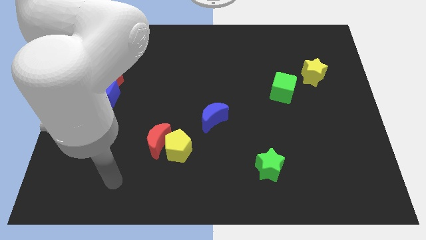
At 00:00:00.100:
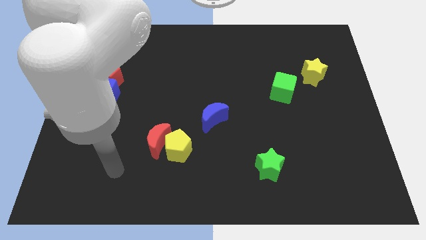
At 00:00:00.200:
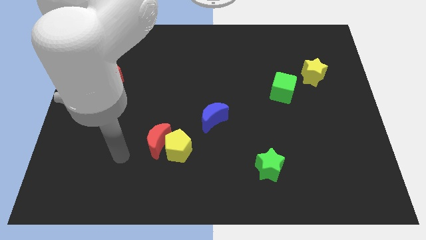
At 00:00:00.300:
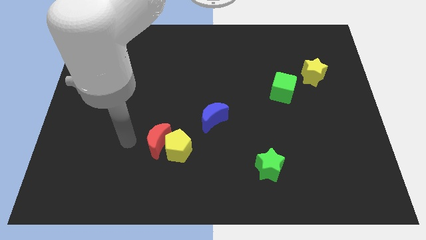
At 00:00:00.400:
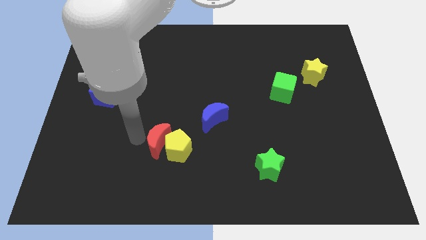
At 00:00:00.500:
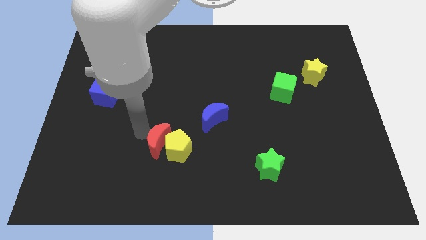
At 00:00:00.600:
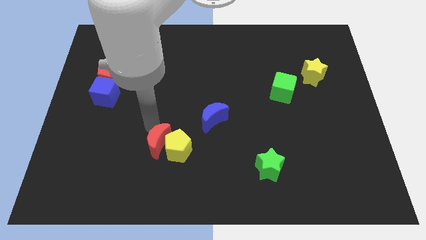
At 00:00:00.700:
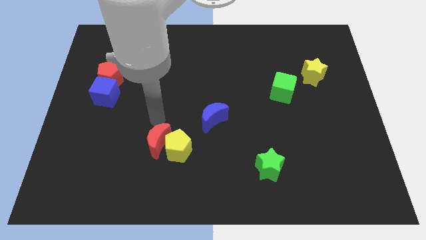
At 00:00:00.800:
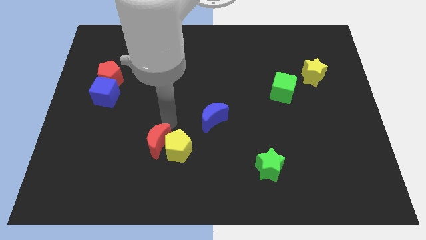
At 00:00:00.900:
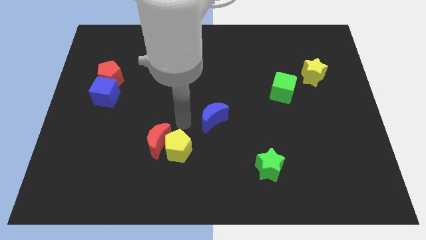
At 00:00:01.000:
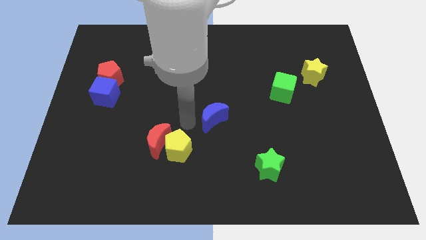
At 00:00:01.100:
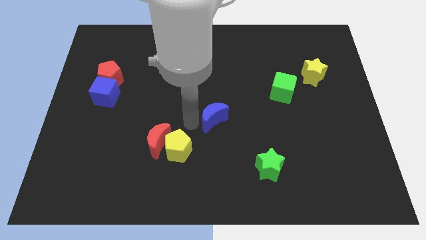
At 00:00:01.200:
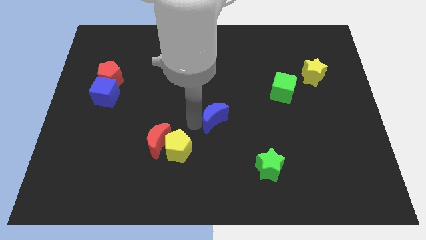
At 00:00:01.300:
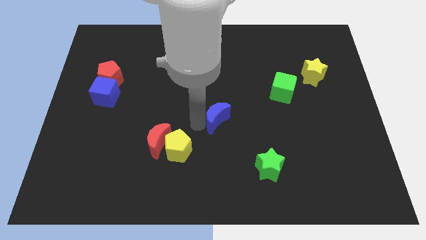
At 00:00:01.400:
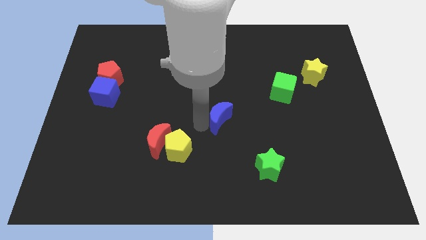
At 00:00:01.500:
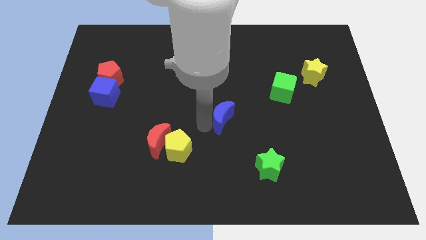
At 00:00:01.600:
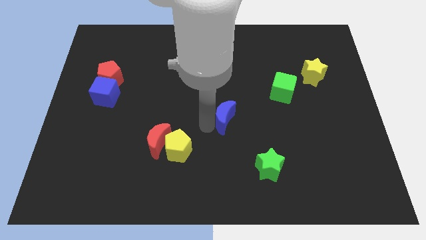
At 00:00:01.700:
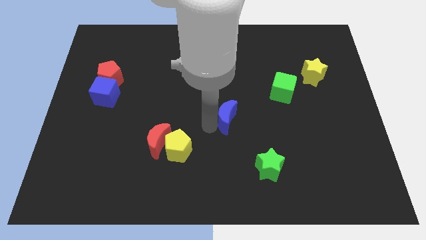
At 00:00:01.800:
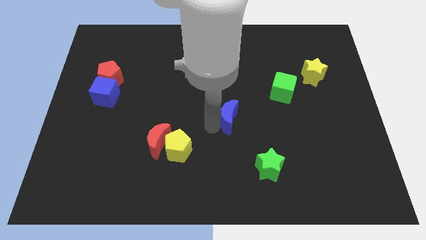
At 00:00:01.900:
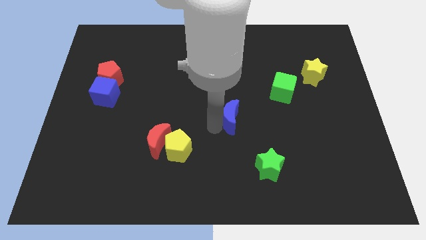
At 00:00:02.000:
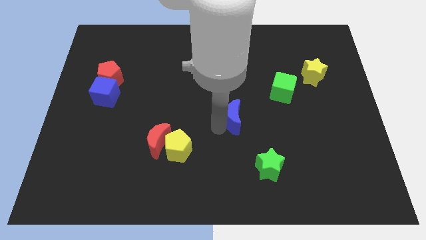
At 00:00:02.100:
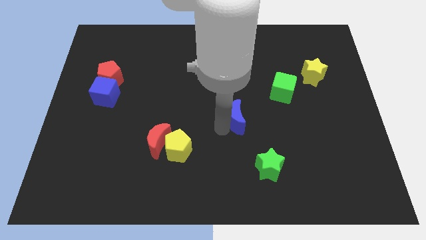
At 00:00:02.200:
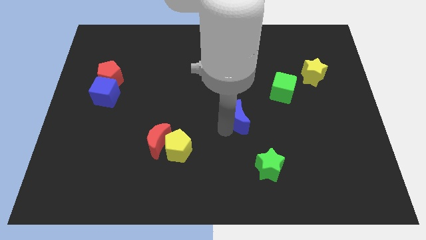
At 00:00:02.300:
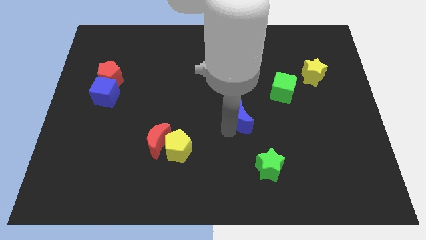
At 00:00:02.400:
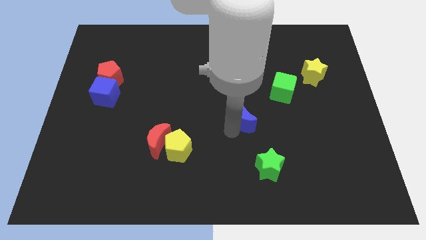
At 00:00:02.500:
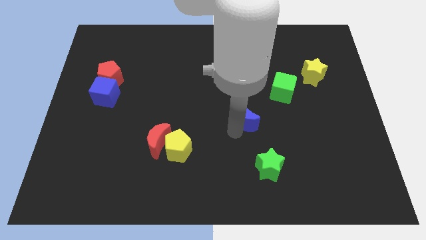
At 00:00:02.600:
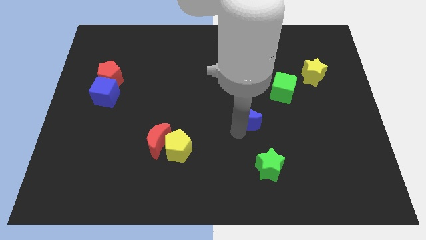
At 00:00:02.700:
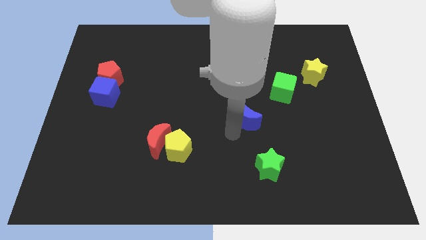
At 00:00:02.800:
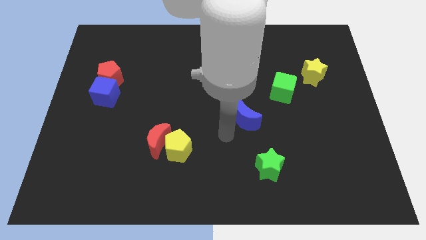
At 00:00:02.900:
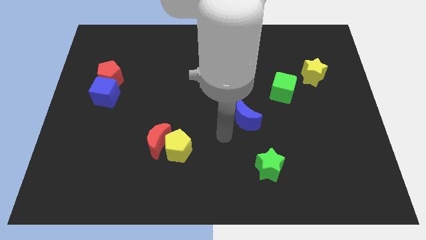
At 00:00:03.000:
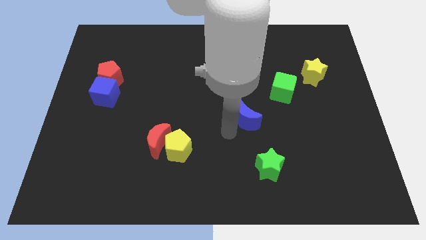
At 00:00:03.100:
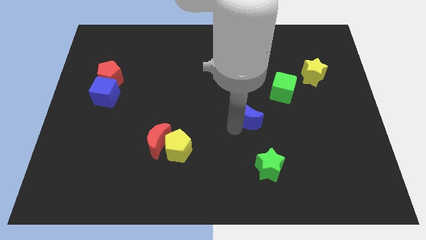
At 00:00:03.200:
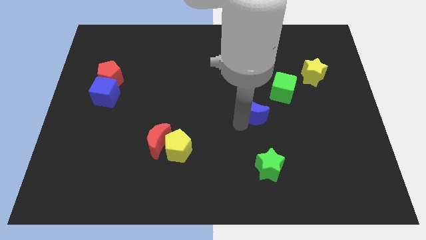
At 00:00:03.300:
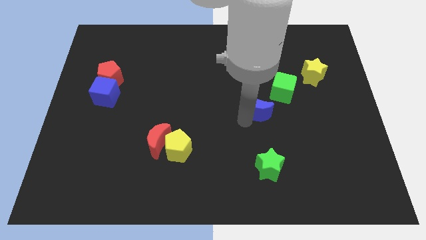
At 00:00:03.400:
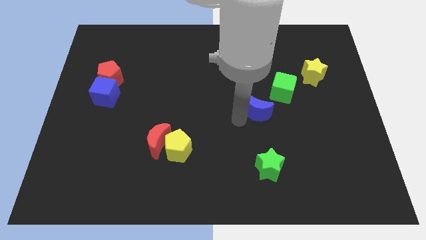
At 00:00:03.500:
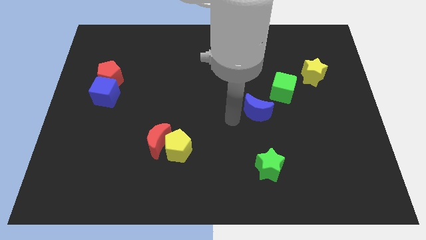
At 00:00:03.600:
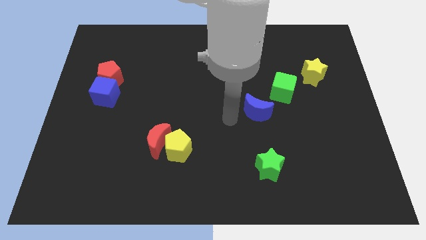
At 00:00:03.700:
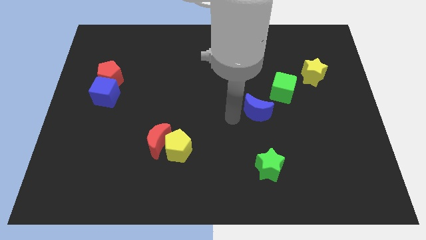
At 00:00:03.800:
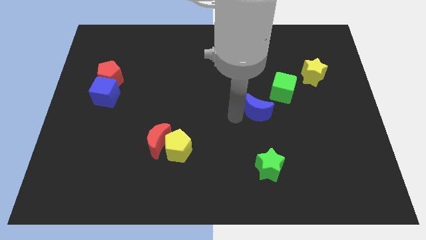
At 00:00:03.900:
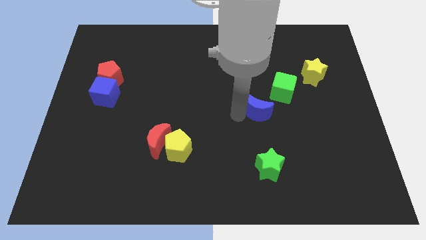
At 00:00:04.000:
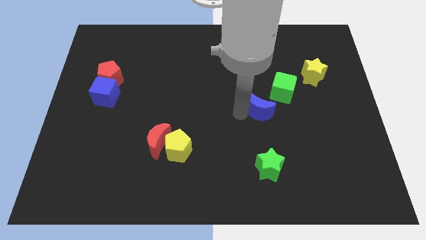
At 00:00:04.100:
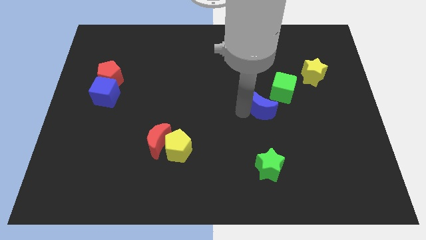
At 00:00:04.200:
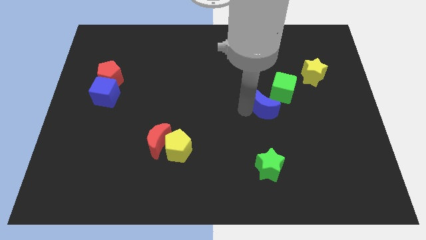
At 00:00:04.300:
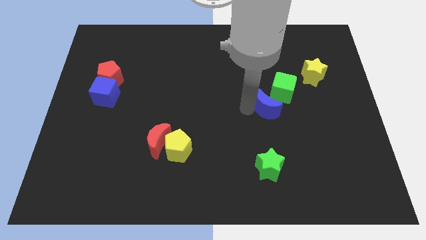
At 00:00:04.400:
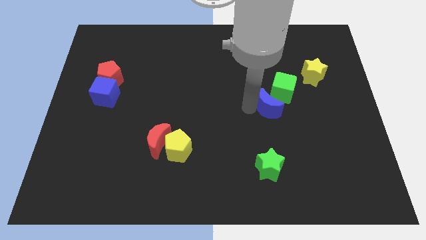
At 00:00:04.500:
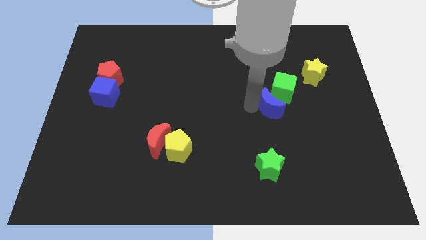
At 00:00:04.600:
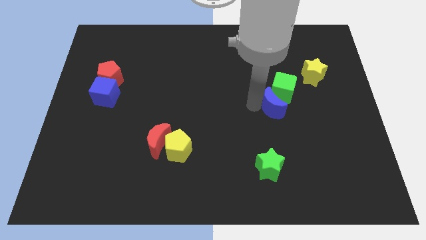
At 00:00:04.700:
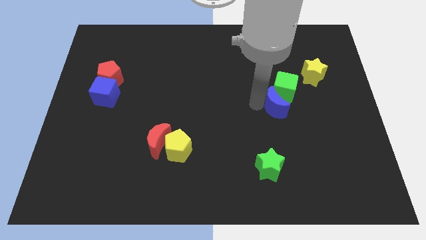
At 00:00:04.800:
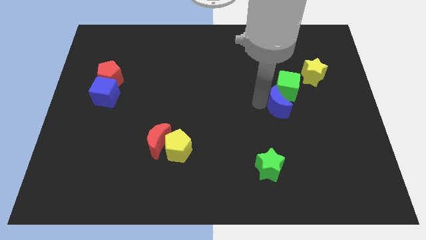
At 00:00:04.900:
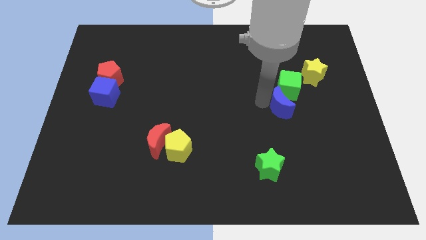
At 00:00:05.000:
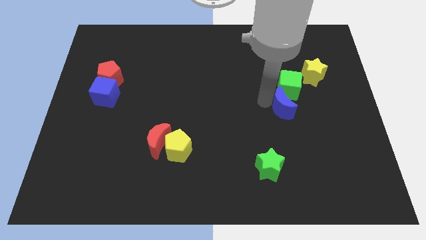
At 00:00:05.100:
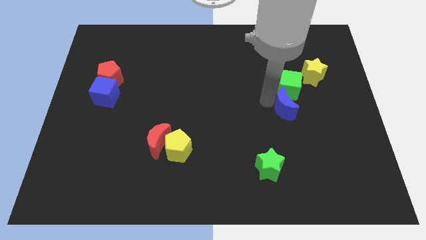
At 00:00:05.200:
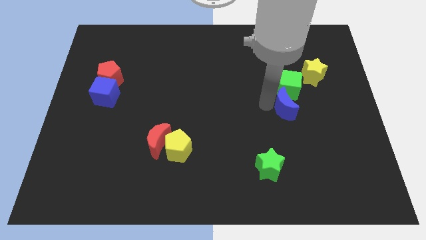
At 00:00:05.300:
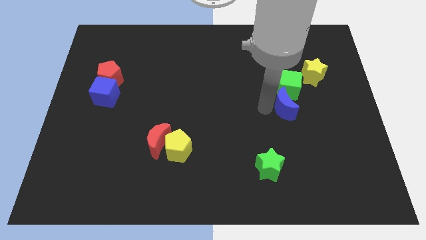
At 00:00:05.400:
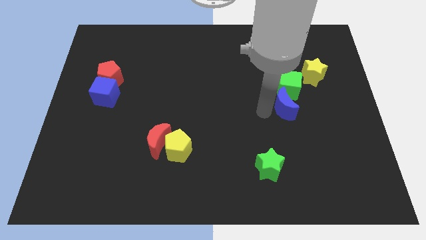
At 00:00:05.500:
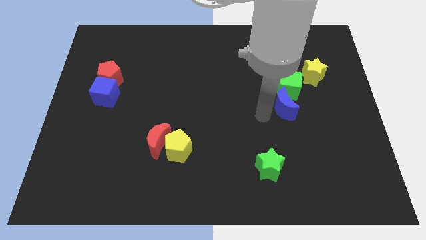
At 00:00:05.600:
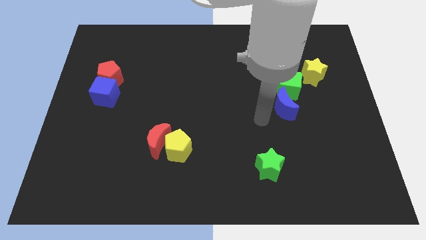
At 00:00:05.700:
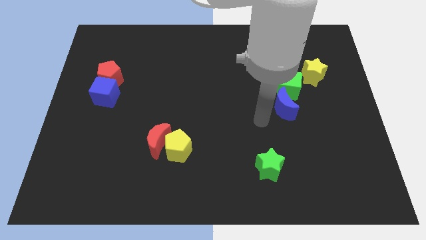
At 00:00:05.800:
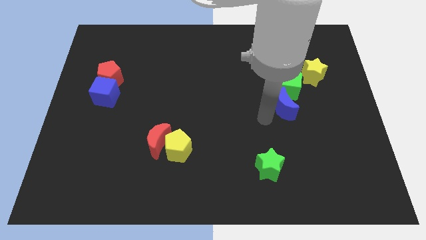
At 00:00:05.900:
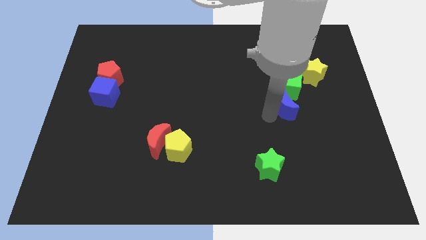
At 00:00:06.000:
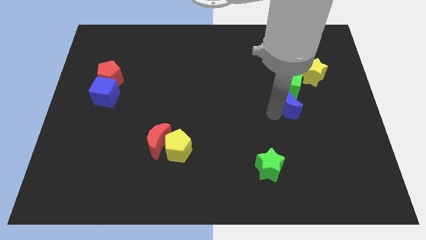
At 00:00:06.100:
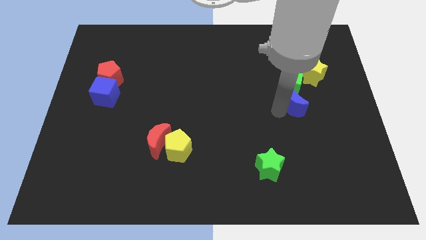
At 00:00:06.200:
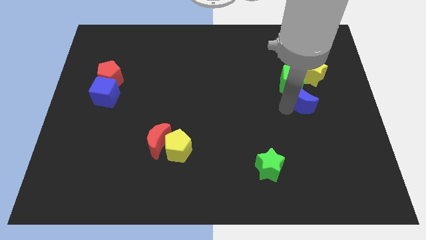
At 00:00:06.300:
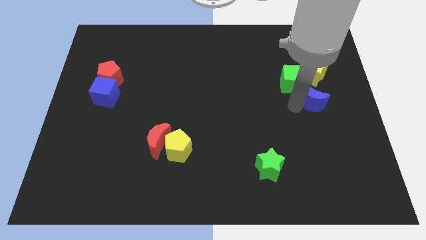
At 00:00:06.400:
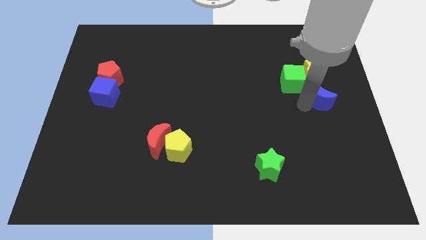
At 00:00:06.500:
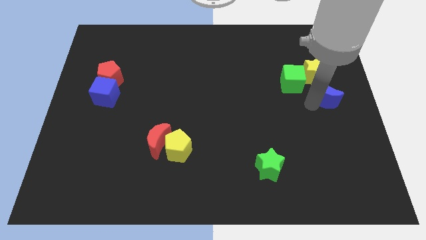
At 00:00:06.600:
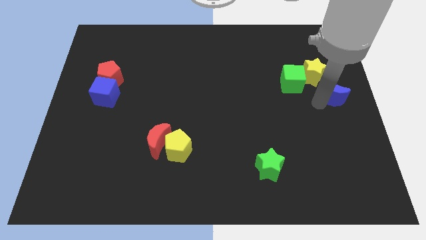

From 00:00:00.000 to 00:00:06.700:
move the blue moon to the right side of the green cube
